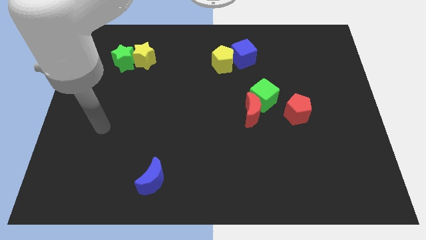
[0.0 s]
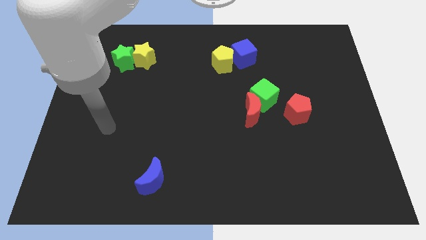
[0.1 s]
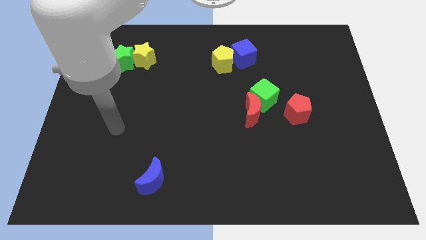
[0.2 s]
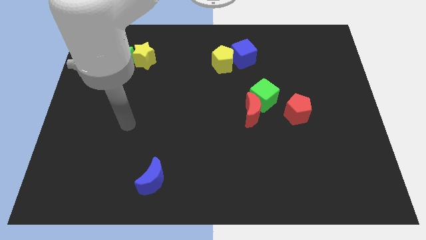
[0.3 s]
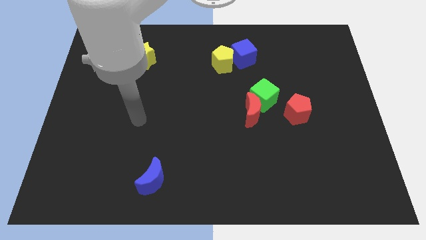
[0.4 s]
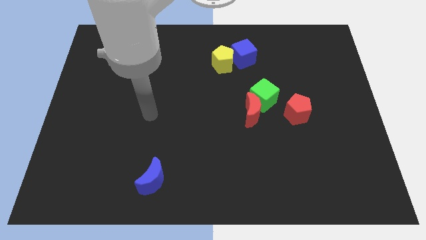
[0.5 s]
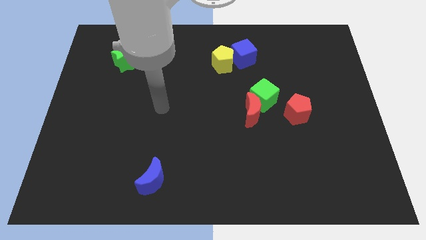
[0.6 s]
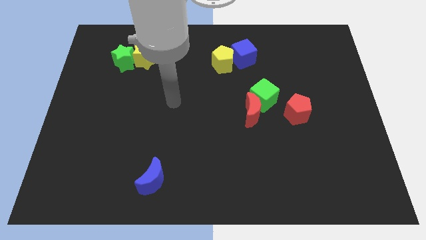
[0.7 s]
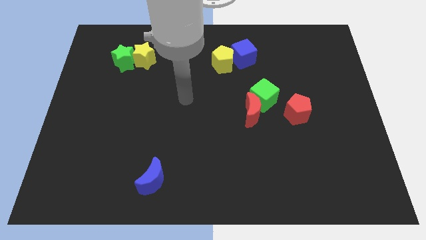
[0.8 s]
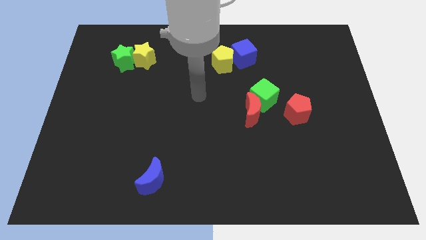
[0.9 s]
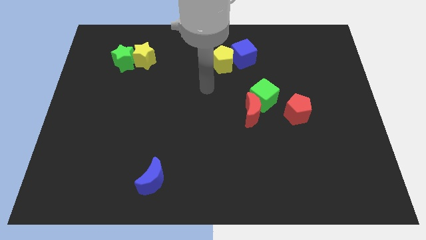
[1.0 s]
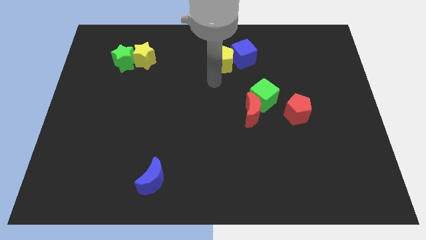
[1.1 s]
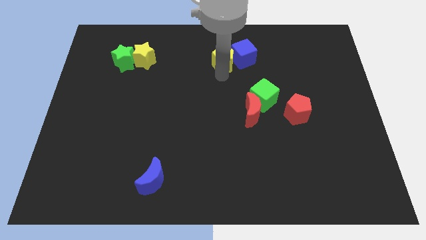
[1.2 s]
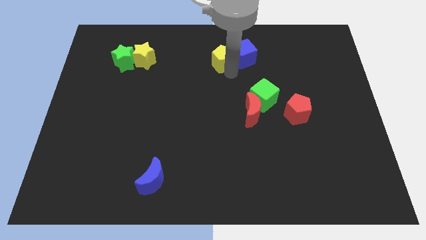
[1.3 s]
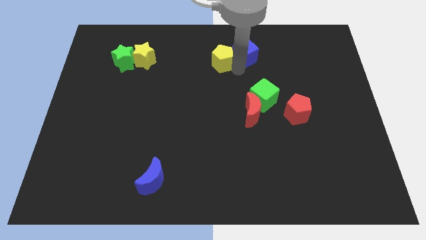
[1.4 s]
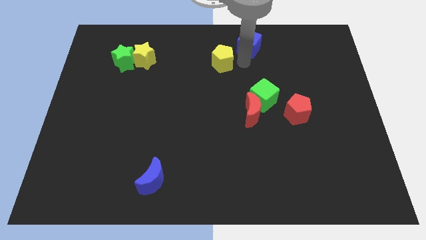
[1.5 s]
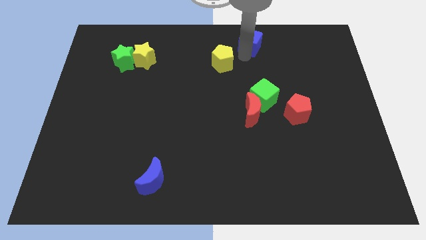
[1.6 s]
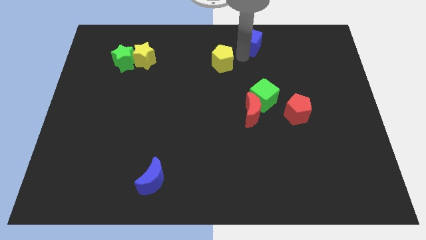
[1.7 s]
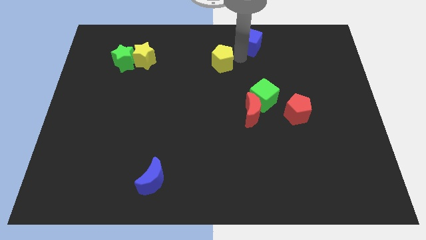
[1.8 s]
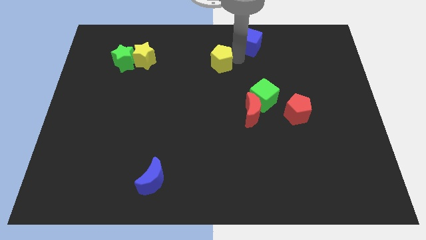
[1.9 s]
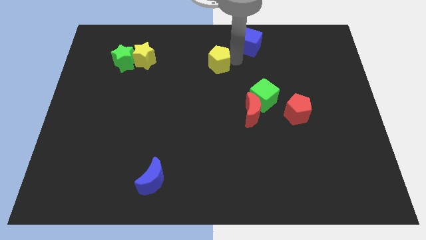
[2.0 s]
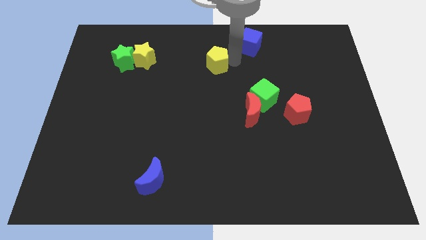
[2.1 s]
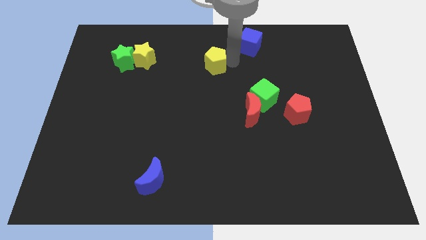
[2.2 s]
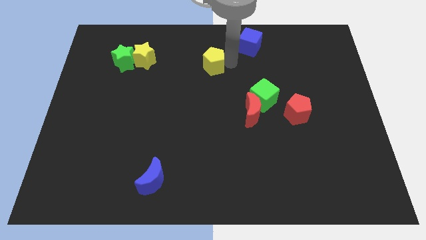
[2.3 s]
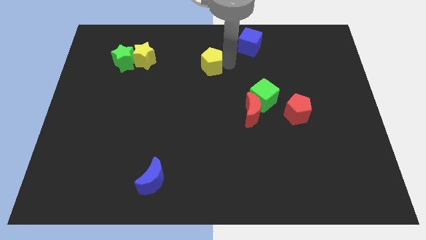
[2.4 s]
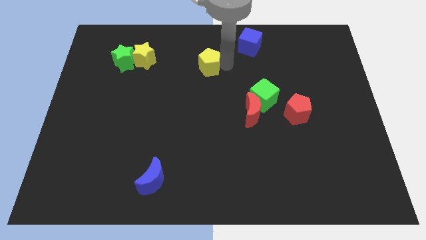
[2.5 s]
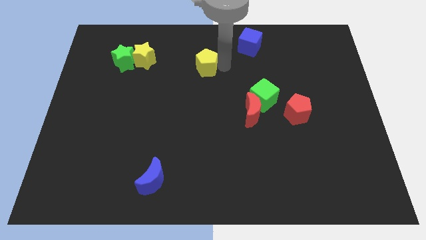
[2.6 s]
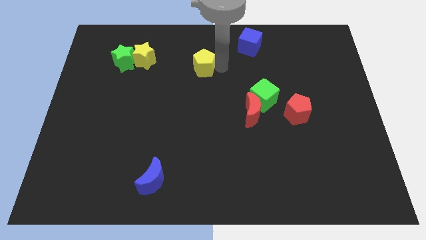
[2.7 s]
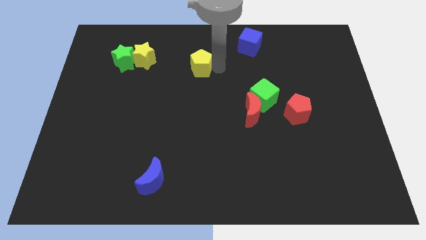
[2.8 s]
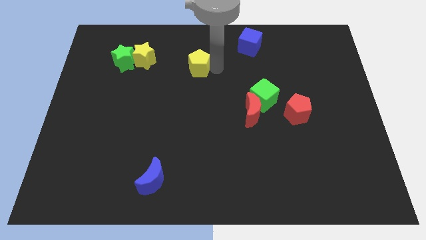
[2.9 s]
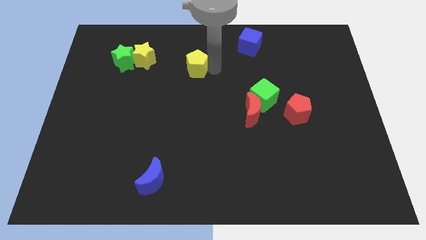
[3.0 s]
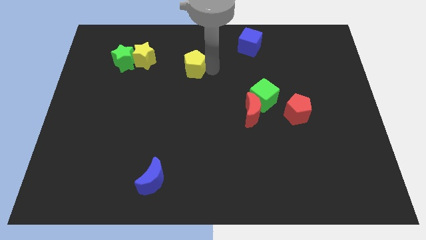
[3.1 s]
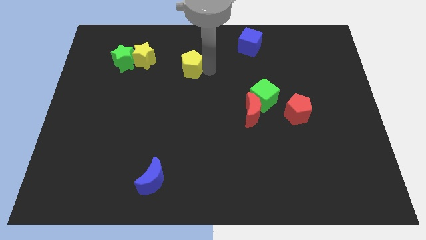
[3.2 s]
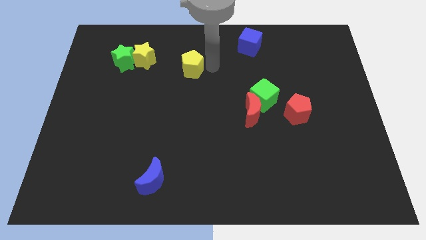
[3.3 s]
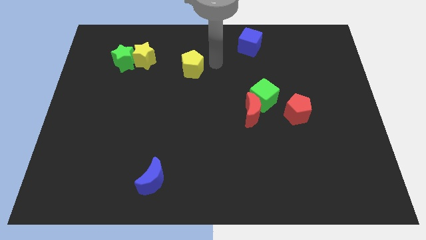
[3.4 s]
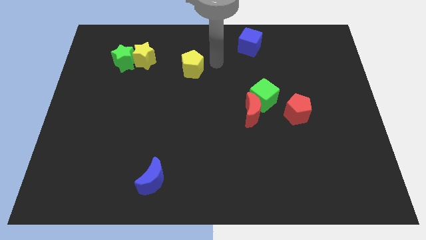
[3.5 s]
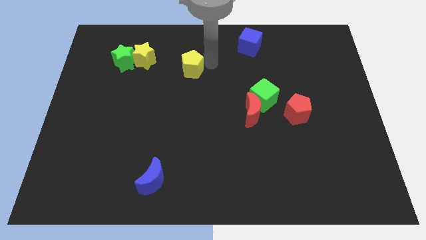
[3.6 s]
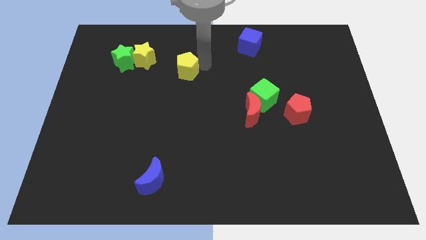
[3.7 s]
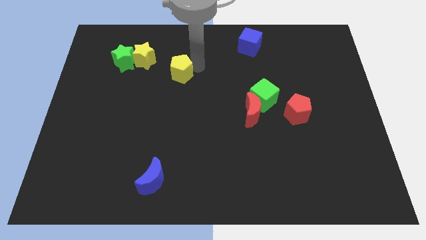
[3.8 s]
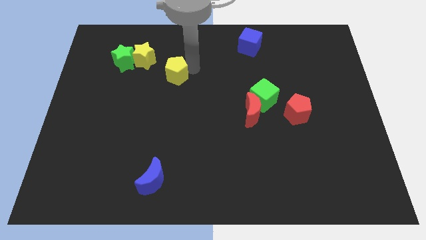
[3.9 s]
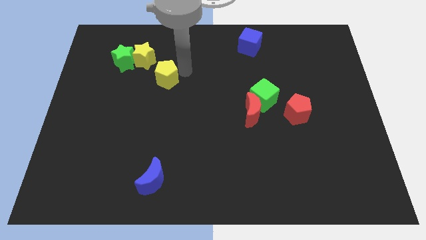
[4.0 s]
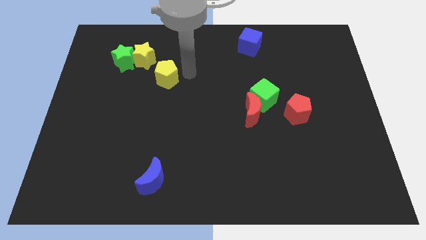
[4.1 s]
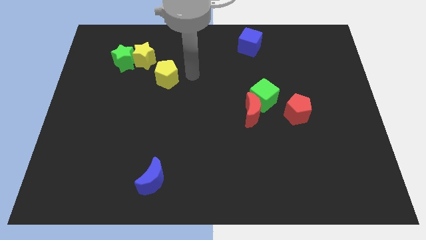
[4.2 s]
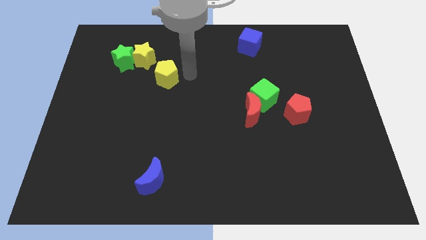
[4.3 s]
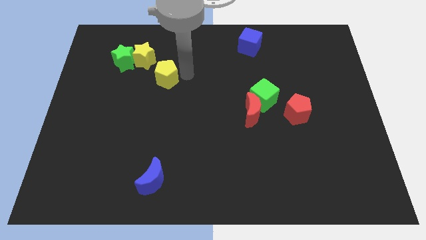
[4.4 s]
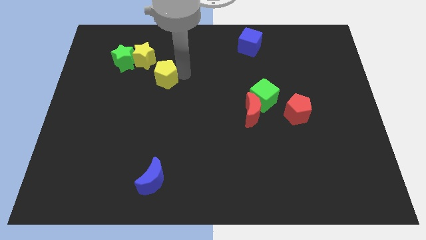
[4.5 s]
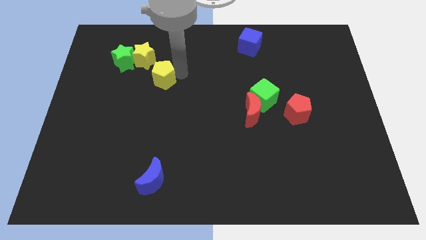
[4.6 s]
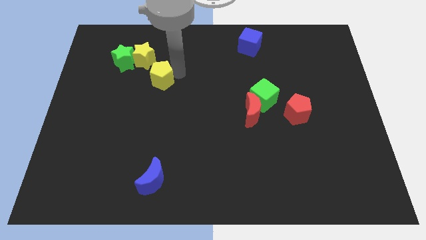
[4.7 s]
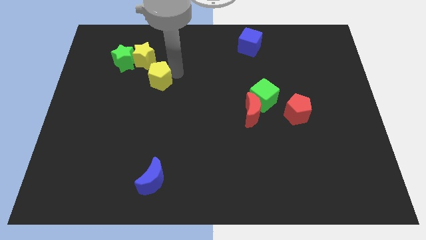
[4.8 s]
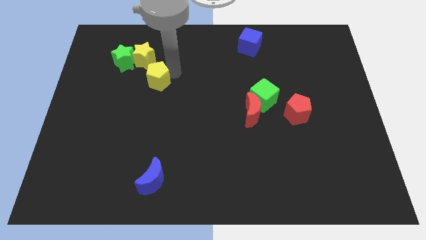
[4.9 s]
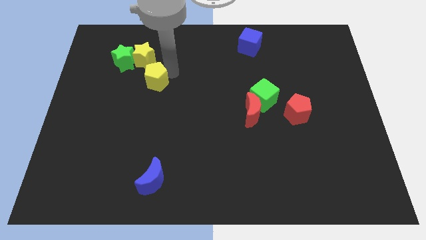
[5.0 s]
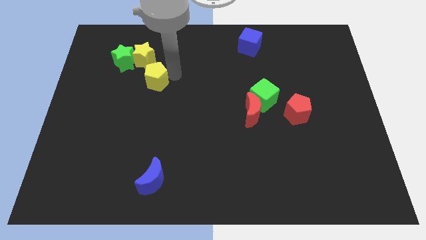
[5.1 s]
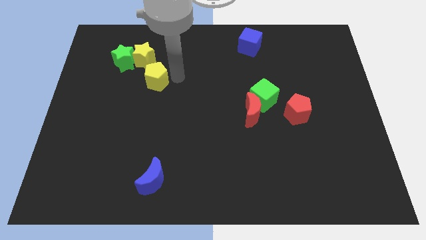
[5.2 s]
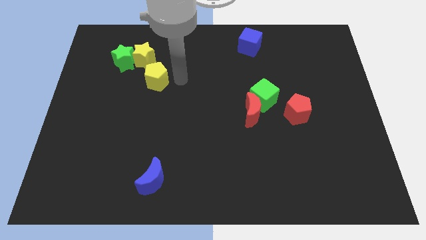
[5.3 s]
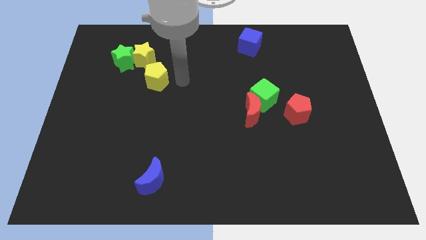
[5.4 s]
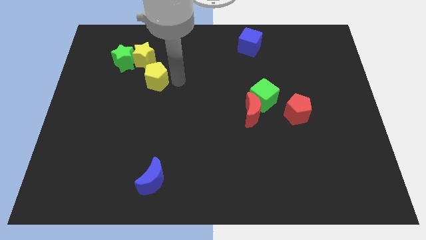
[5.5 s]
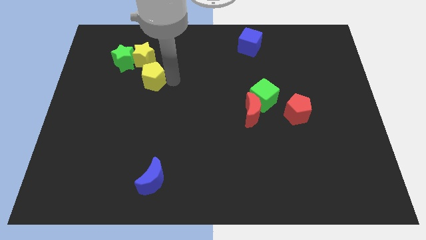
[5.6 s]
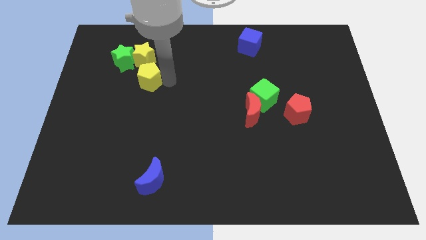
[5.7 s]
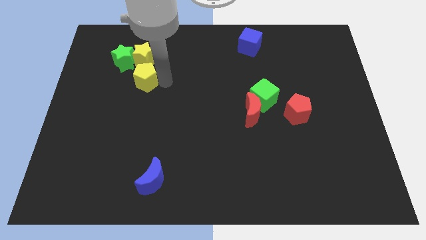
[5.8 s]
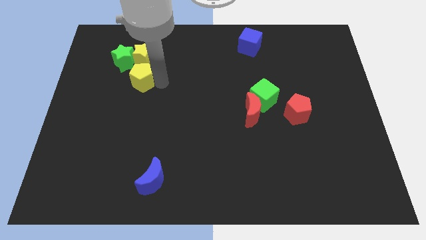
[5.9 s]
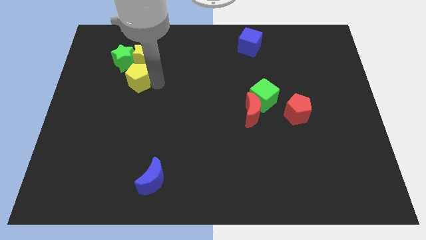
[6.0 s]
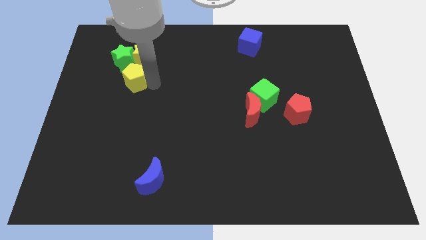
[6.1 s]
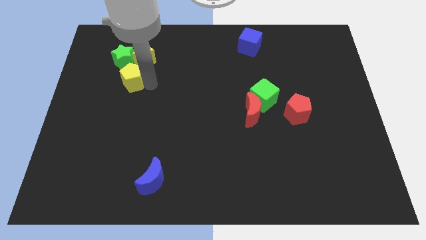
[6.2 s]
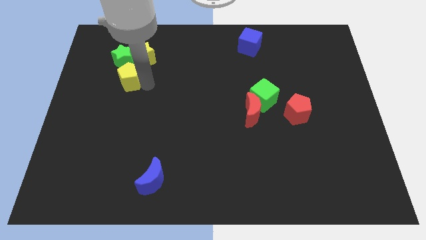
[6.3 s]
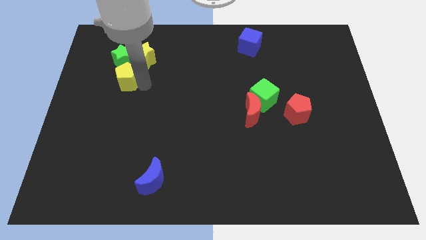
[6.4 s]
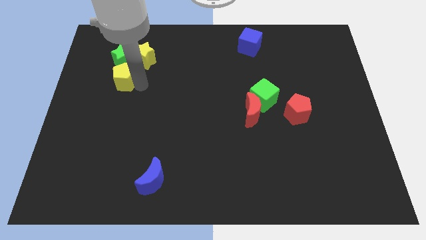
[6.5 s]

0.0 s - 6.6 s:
put the yellow pentagon close to the green star

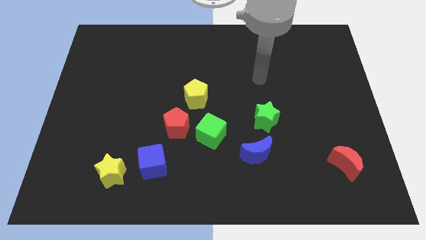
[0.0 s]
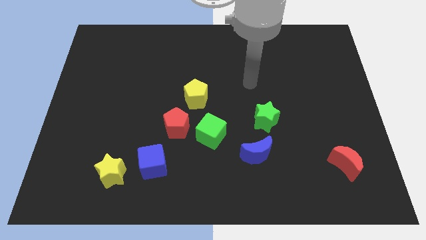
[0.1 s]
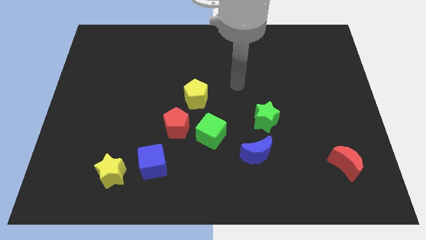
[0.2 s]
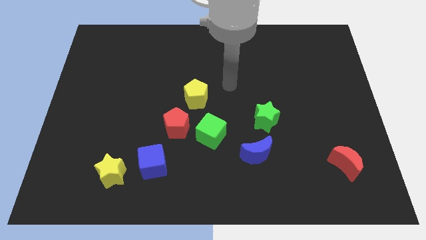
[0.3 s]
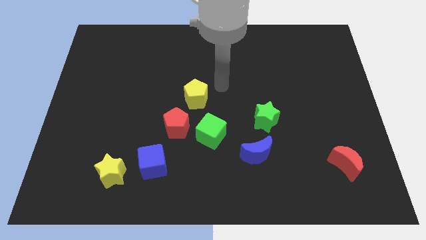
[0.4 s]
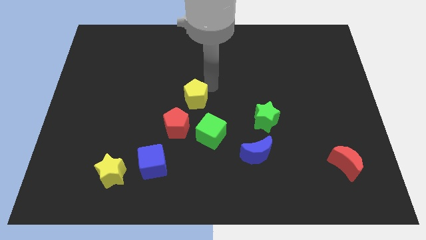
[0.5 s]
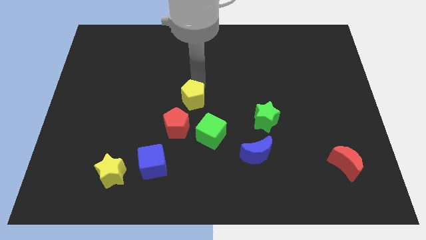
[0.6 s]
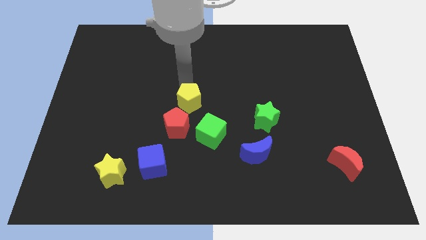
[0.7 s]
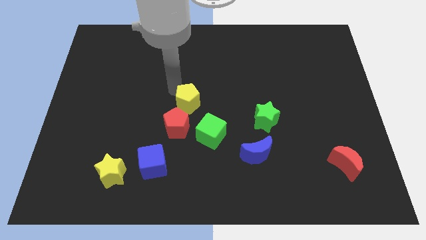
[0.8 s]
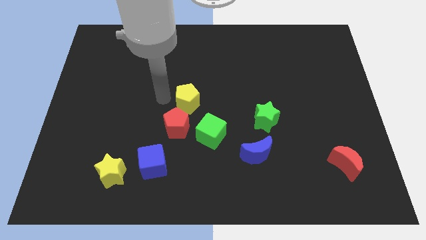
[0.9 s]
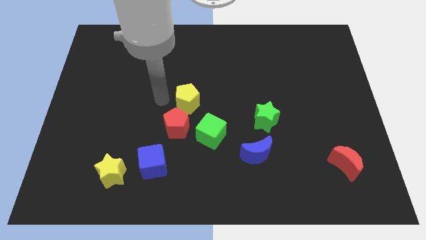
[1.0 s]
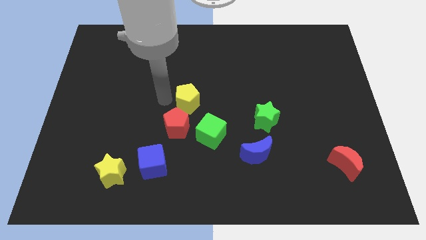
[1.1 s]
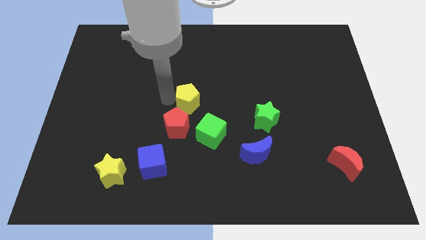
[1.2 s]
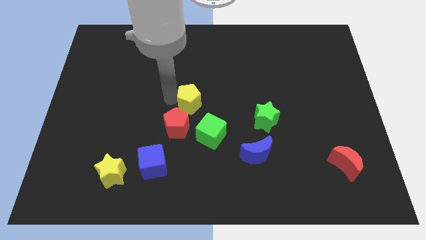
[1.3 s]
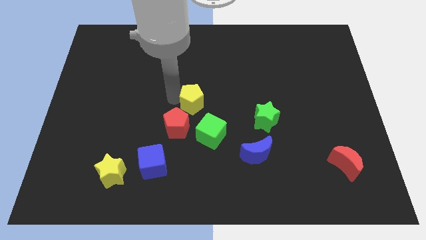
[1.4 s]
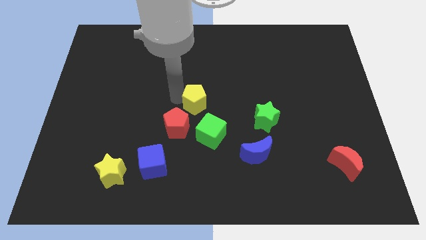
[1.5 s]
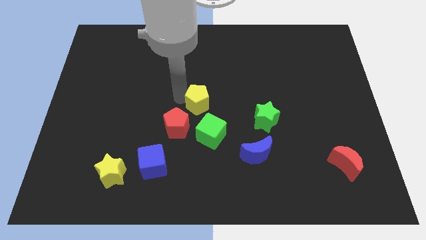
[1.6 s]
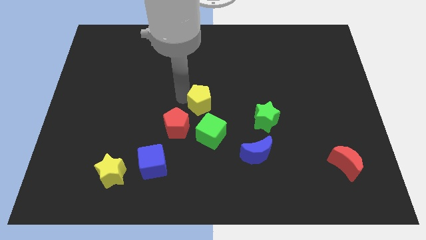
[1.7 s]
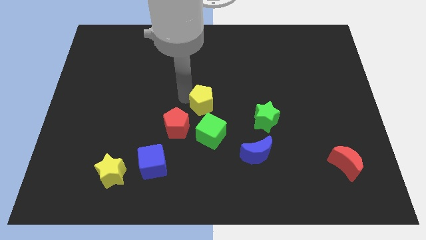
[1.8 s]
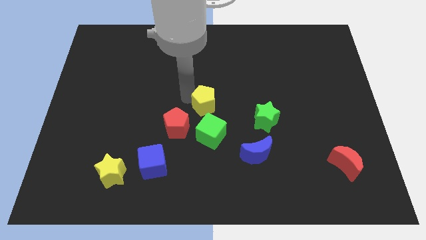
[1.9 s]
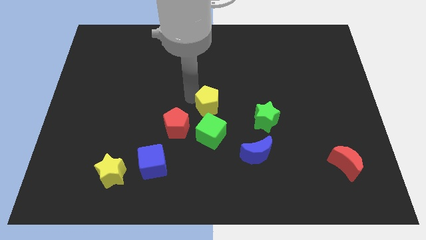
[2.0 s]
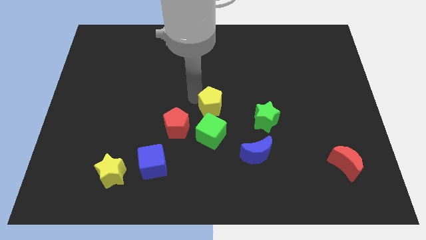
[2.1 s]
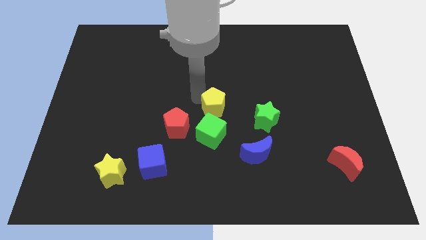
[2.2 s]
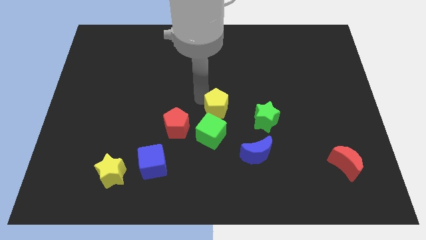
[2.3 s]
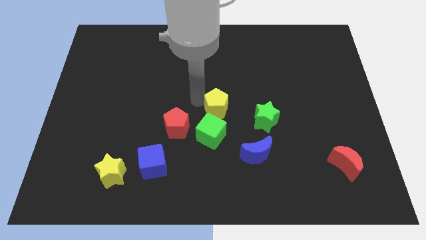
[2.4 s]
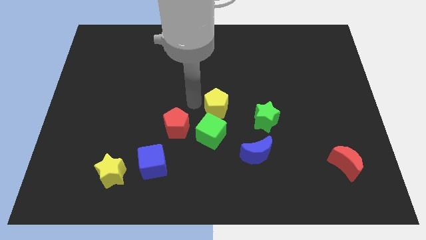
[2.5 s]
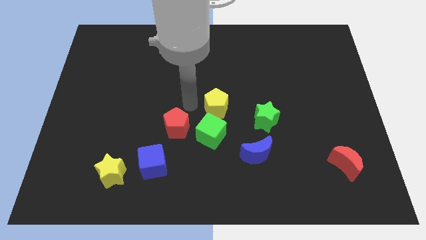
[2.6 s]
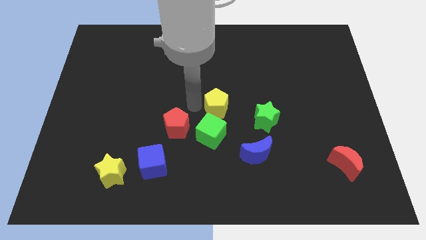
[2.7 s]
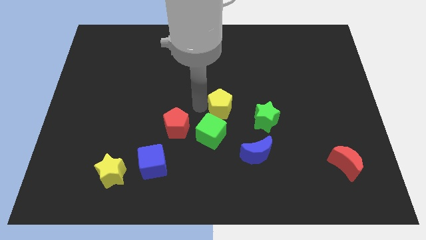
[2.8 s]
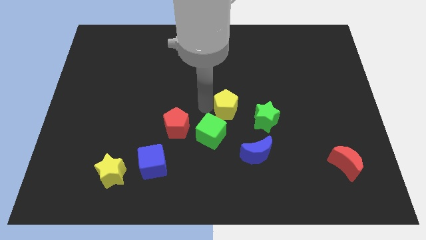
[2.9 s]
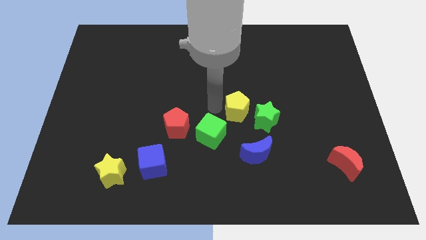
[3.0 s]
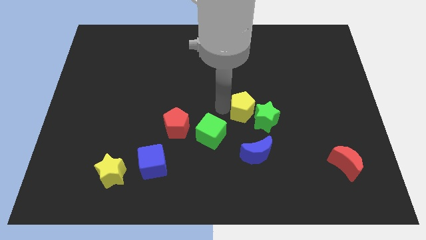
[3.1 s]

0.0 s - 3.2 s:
push the yellow pentagon next to the green star
